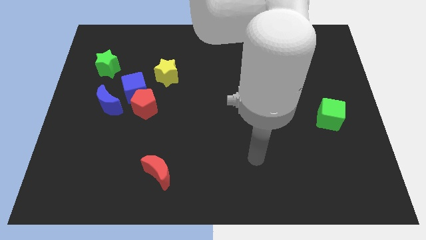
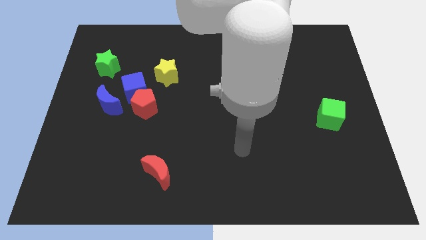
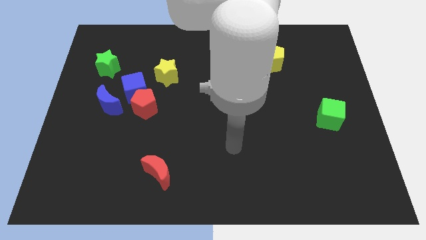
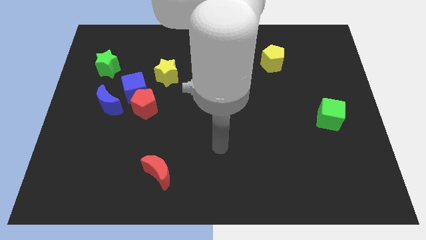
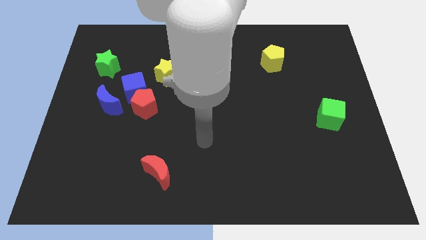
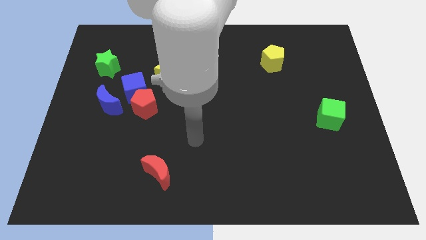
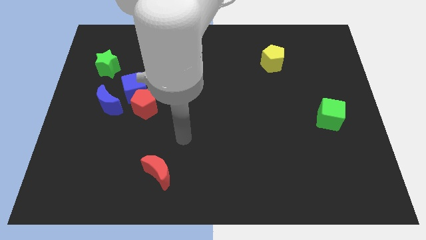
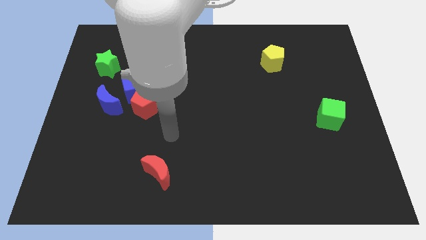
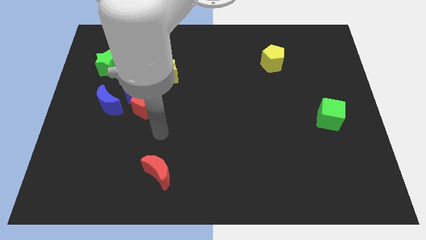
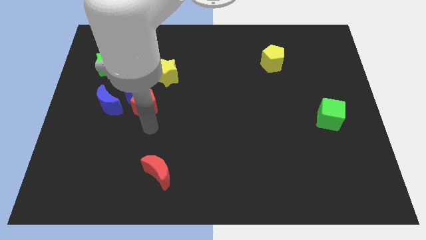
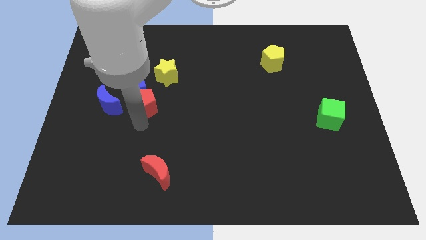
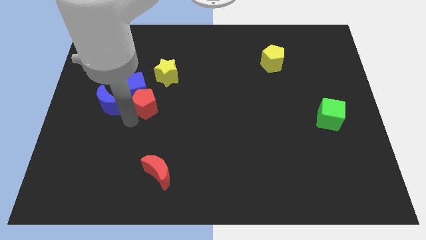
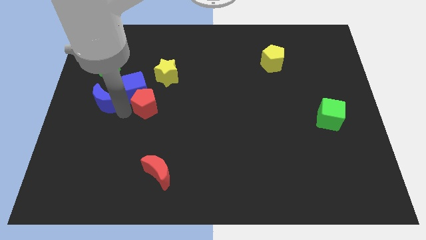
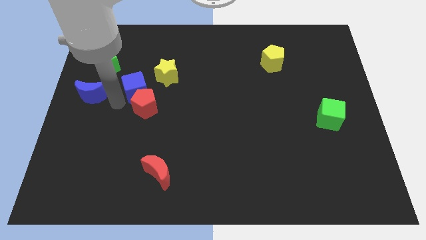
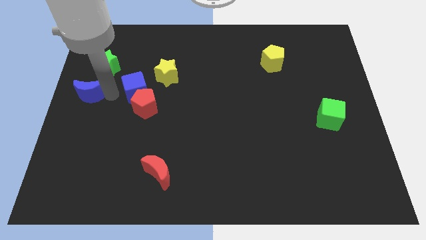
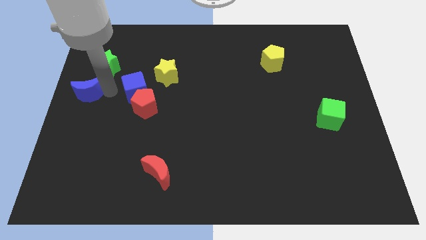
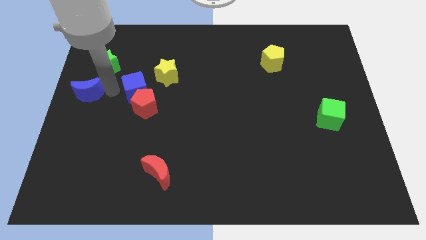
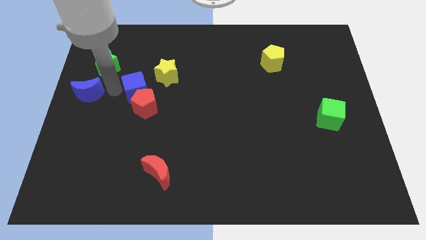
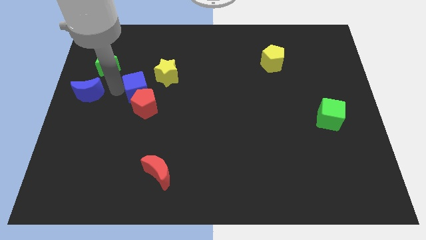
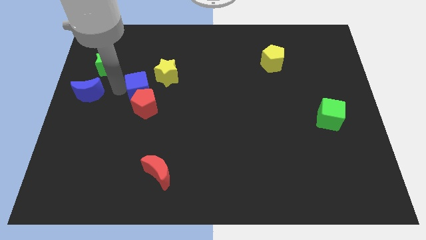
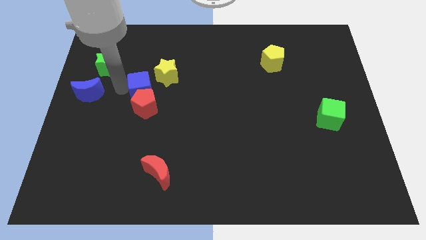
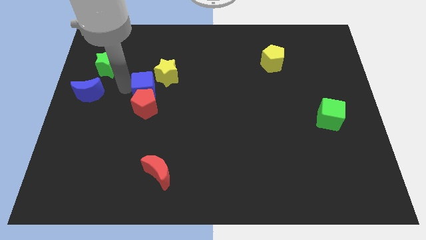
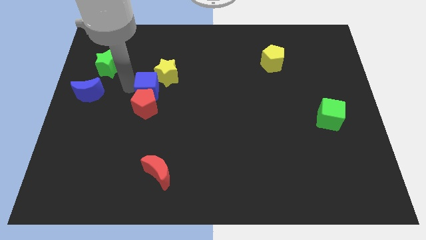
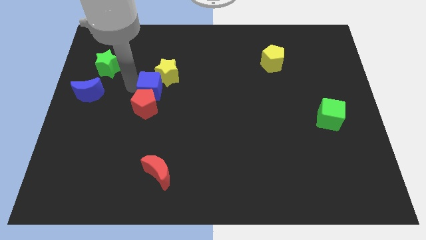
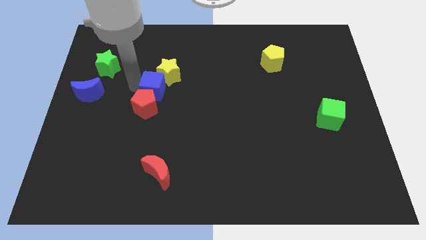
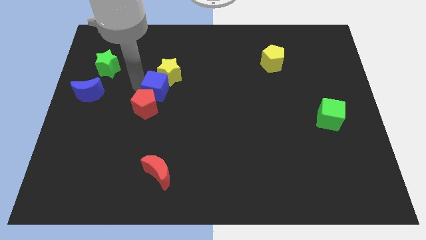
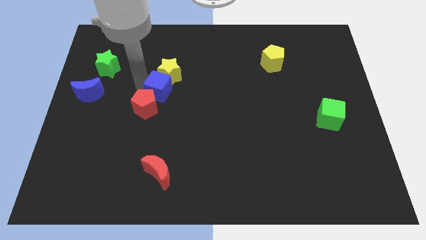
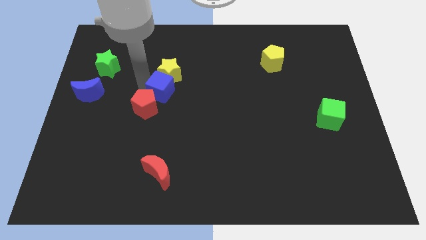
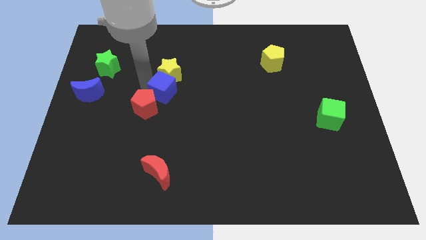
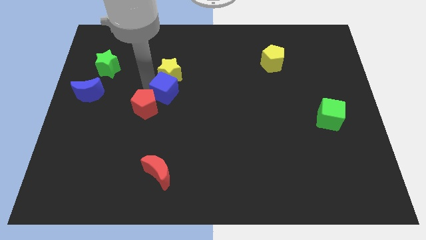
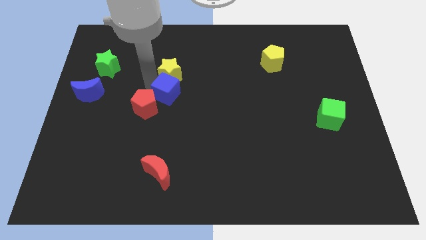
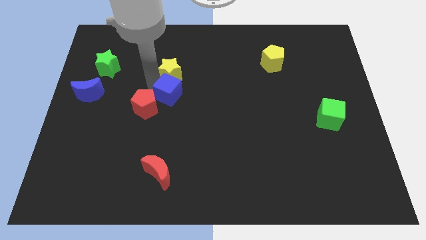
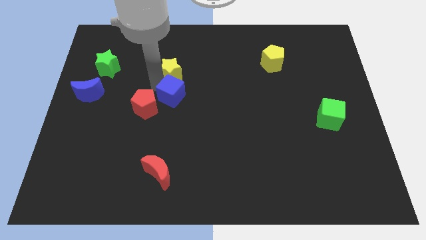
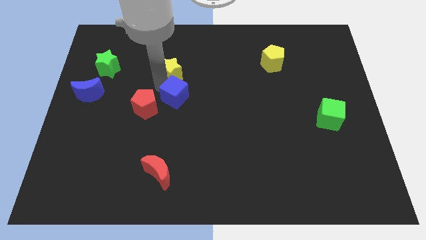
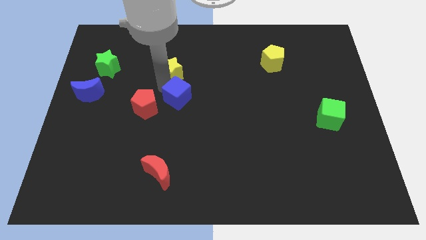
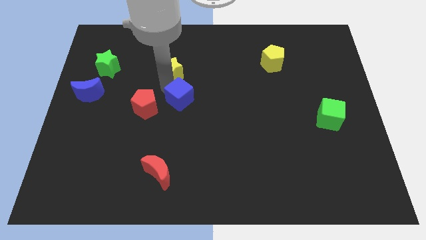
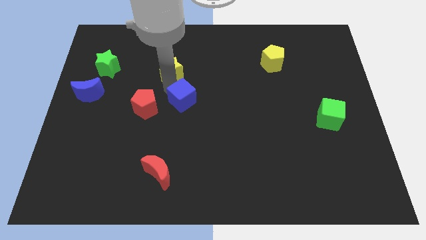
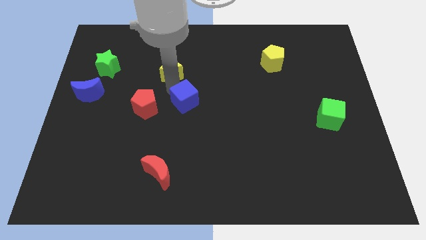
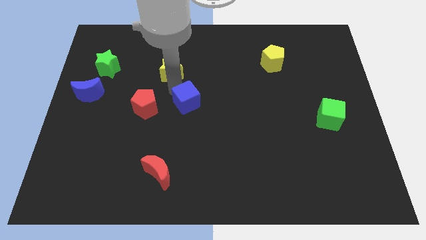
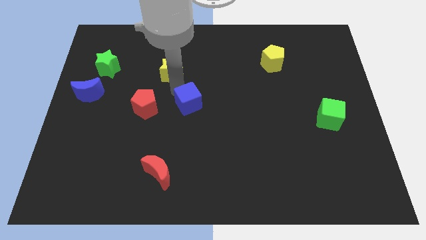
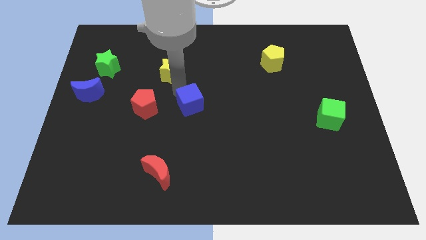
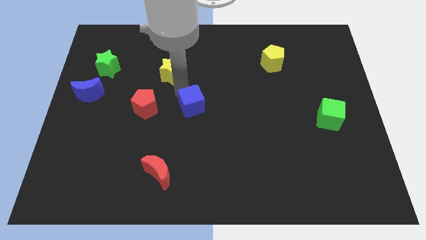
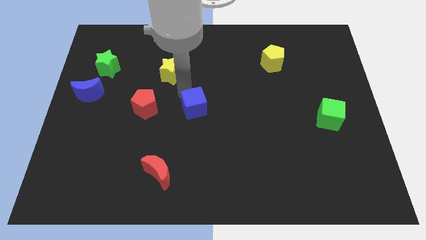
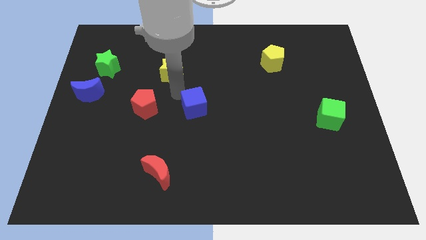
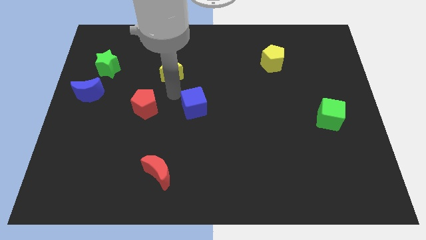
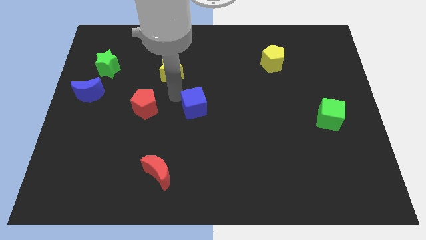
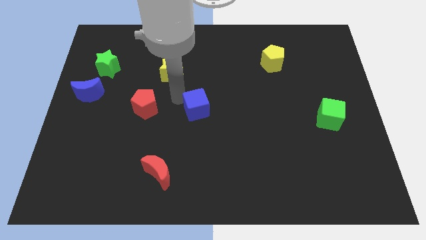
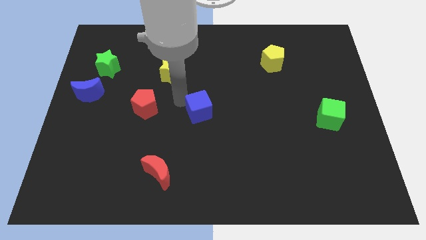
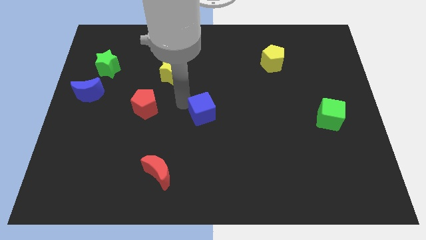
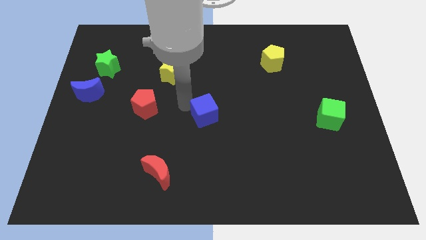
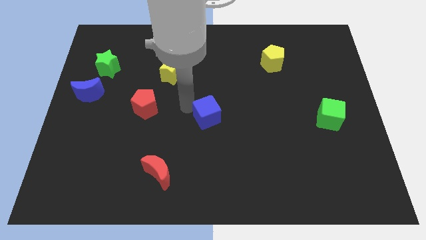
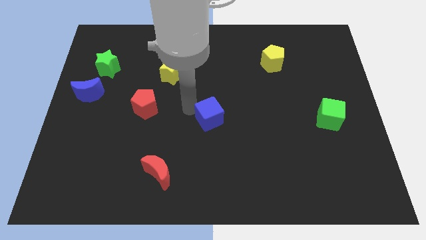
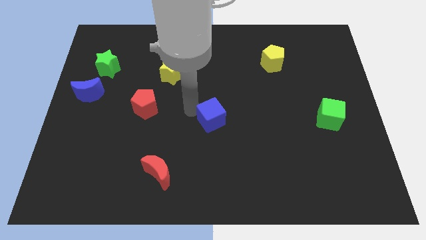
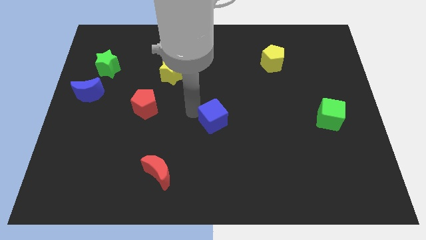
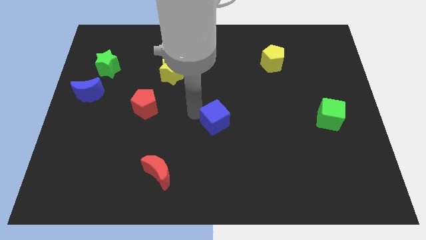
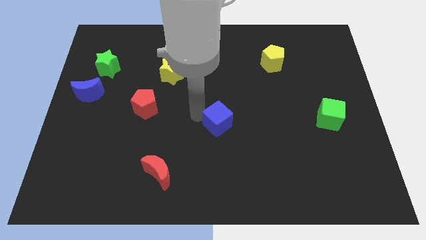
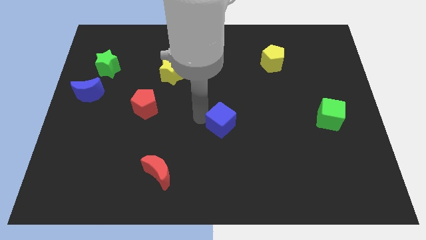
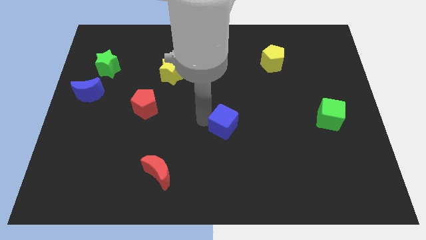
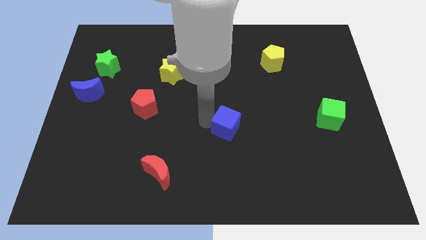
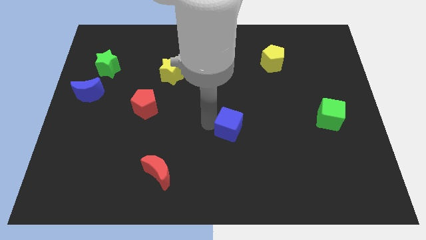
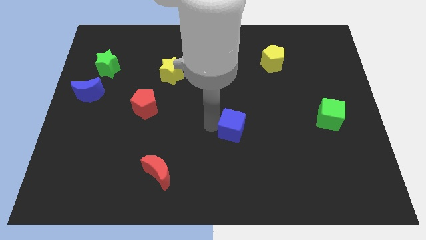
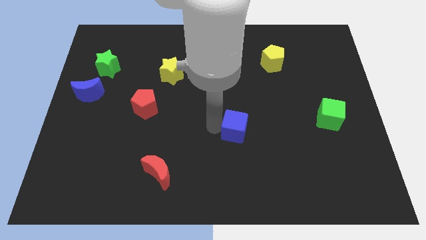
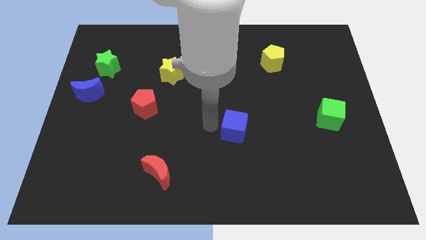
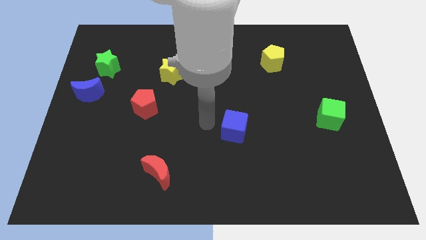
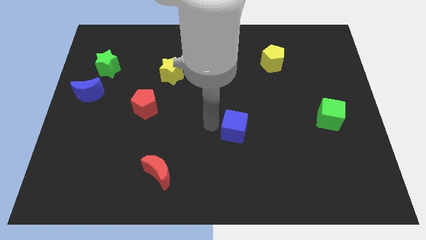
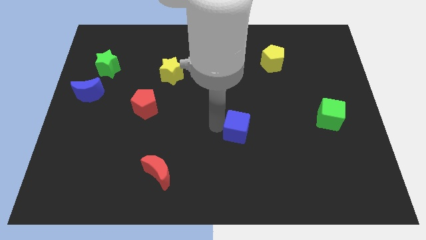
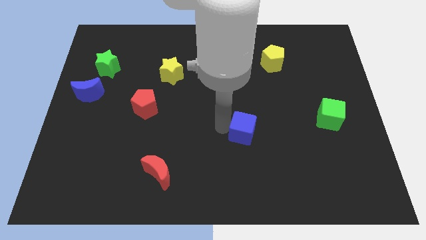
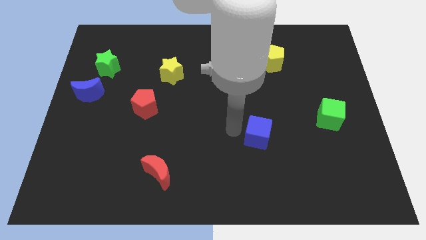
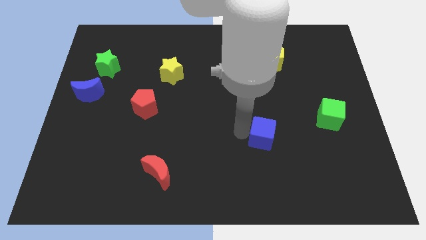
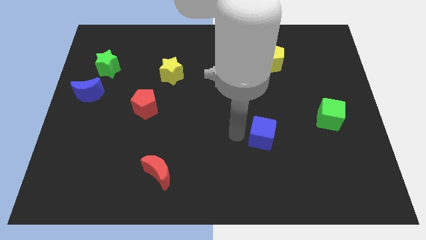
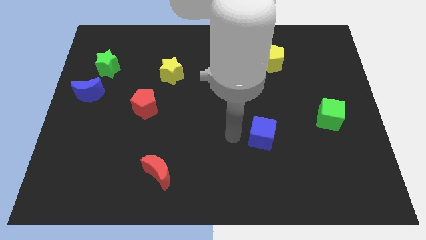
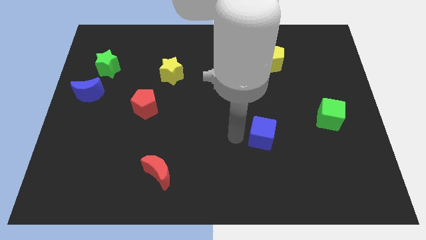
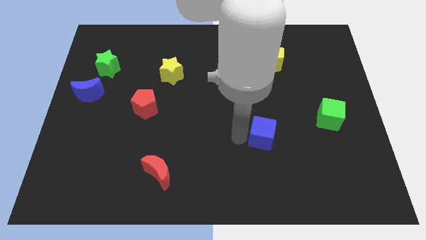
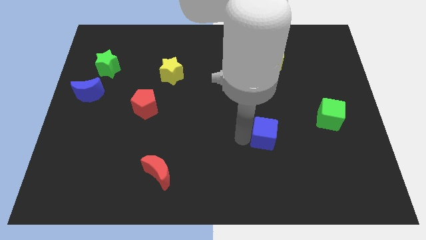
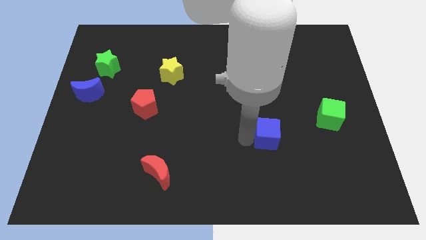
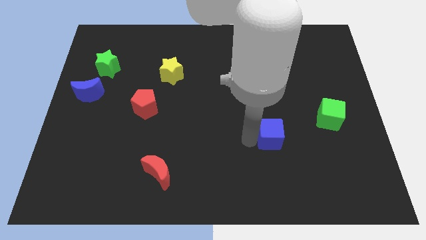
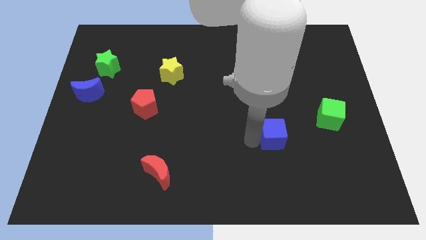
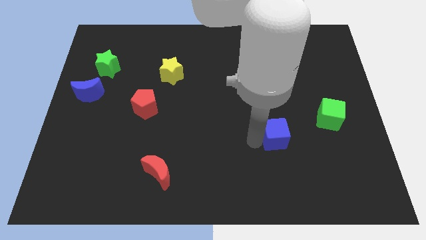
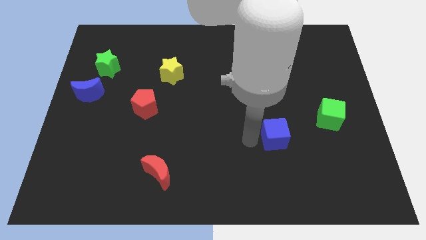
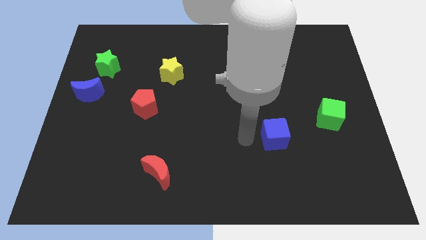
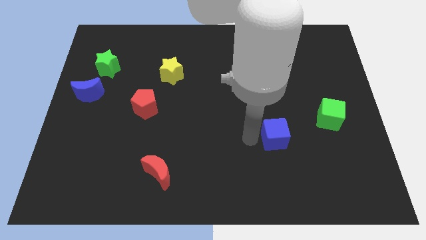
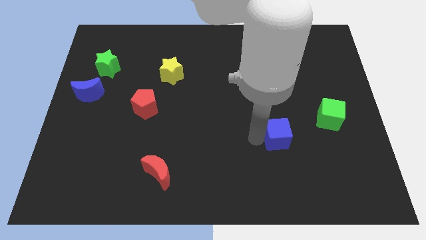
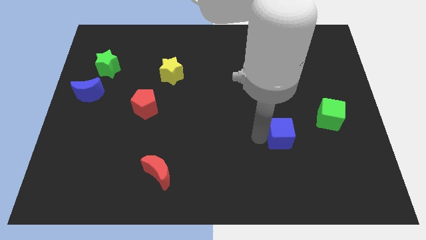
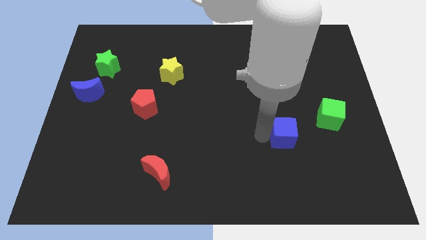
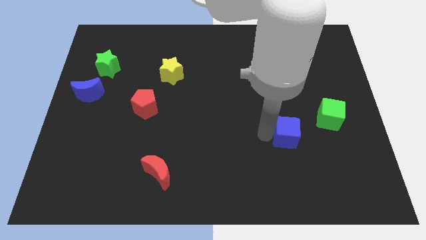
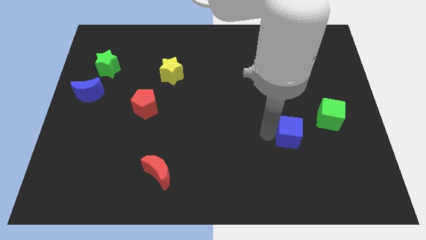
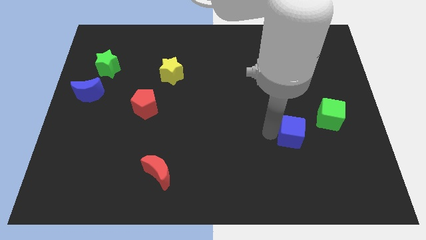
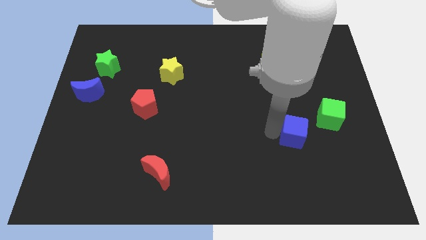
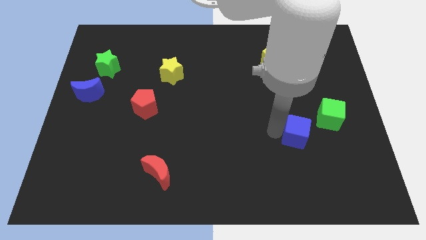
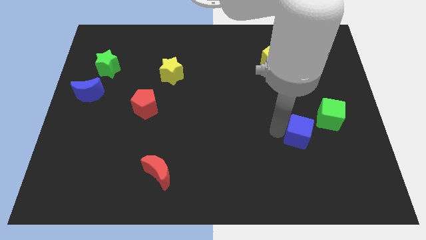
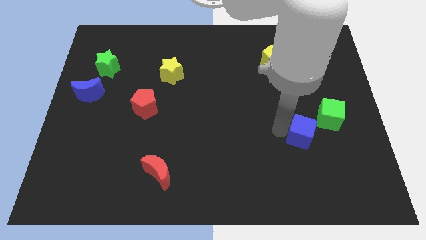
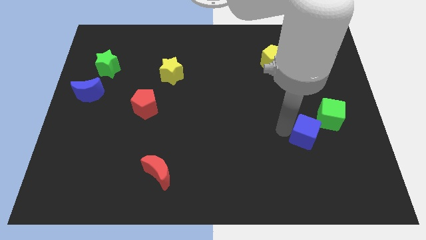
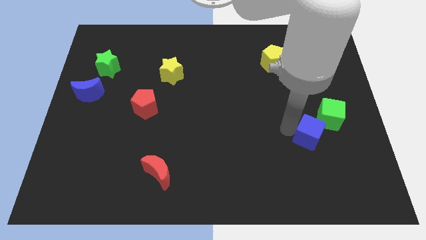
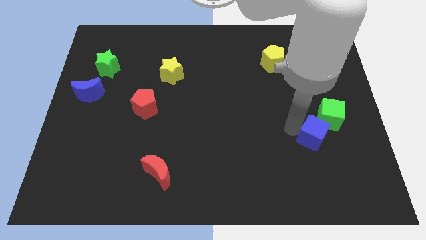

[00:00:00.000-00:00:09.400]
move the blue cube below the green cube
